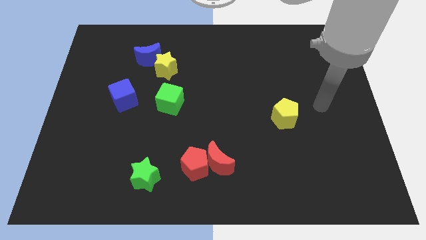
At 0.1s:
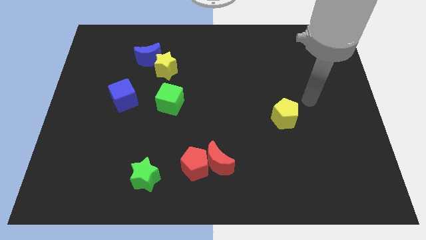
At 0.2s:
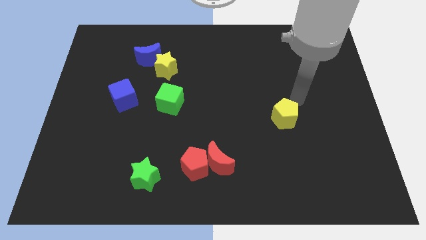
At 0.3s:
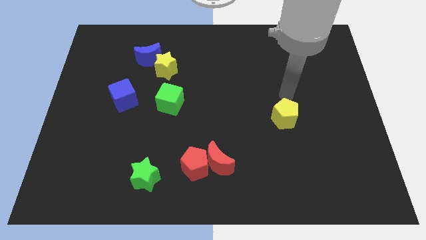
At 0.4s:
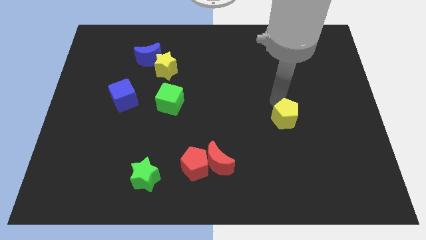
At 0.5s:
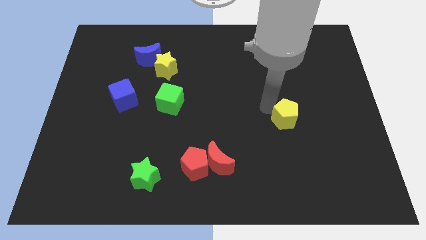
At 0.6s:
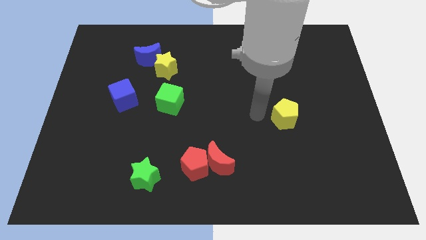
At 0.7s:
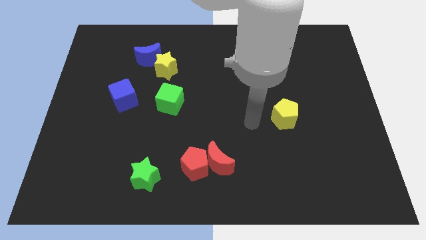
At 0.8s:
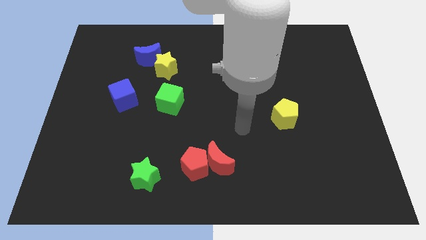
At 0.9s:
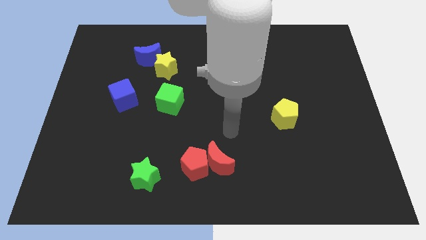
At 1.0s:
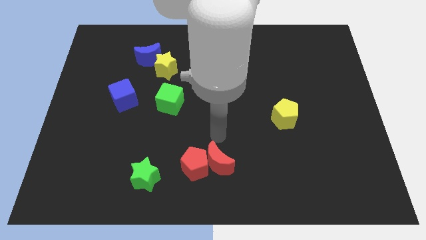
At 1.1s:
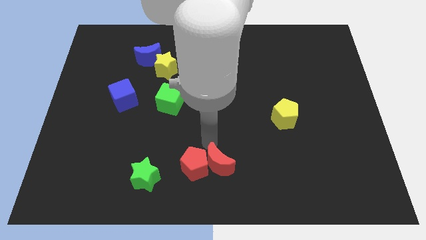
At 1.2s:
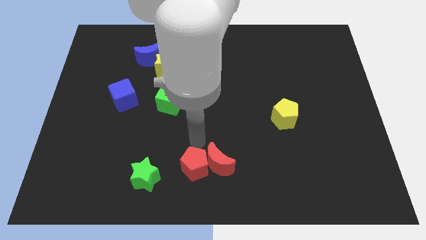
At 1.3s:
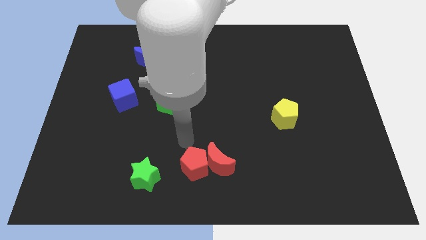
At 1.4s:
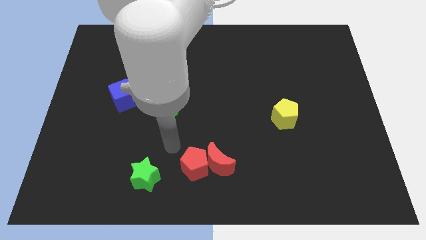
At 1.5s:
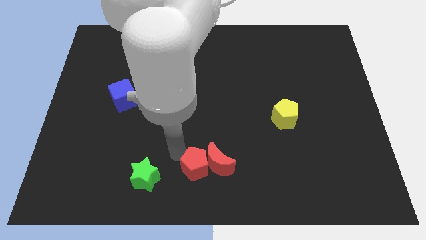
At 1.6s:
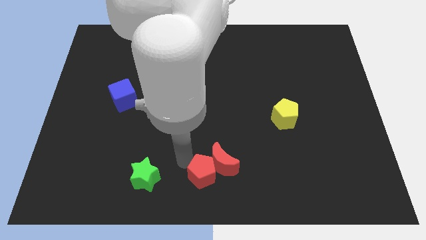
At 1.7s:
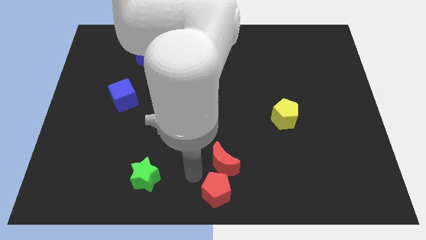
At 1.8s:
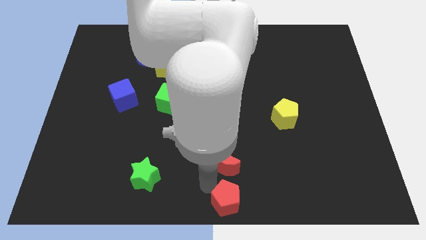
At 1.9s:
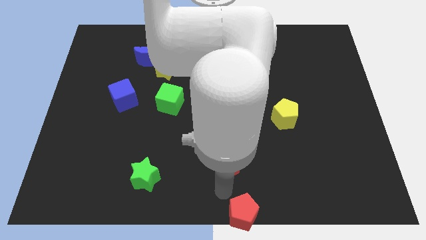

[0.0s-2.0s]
move the red moon away from the red pentagon

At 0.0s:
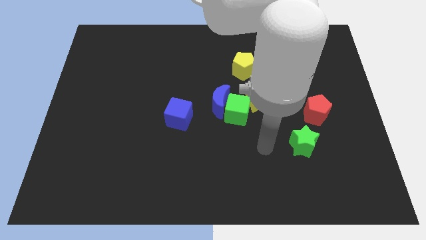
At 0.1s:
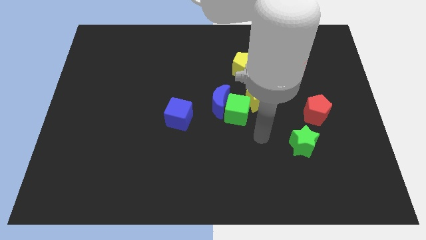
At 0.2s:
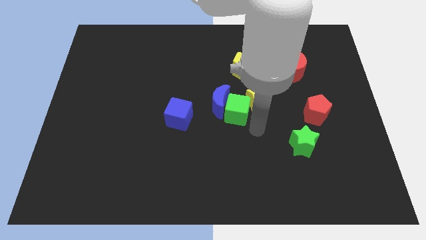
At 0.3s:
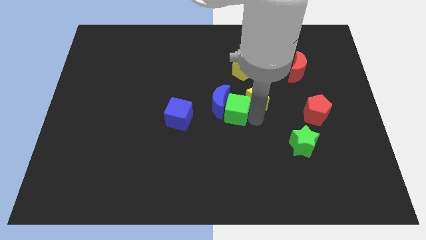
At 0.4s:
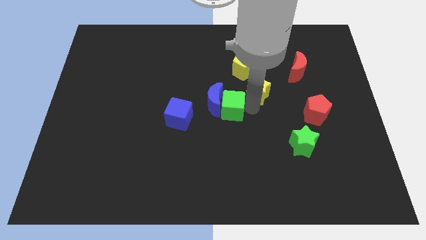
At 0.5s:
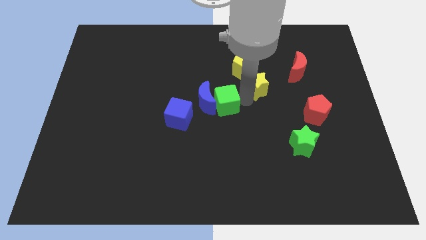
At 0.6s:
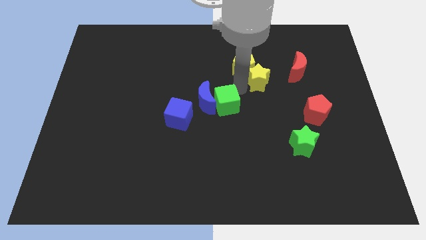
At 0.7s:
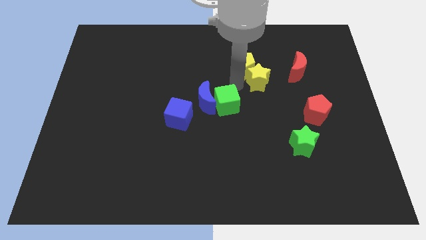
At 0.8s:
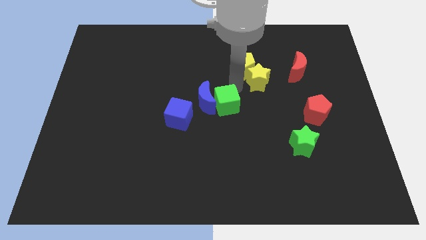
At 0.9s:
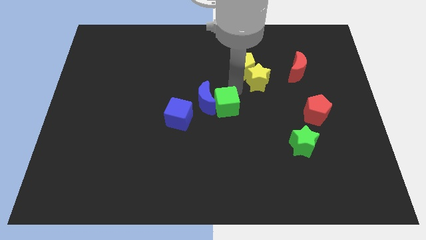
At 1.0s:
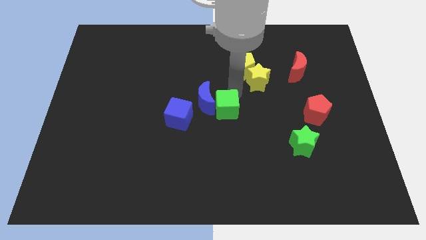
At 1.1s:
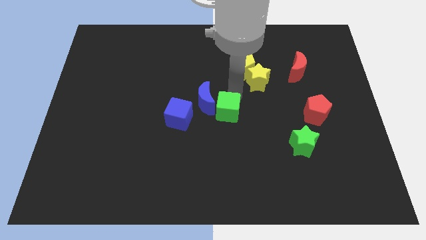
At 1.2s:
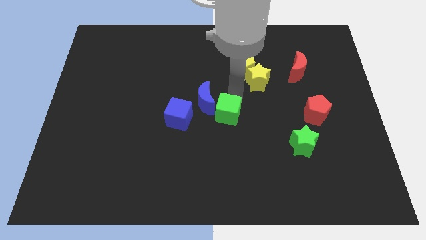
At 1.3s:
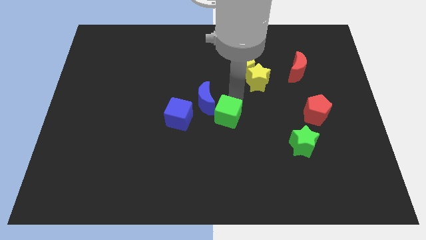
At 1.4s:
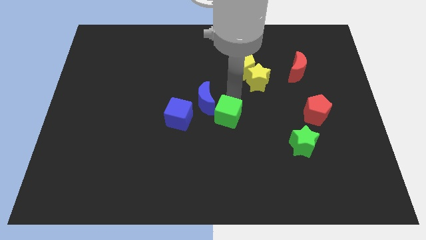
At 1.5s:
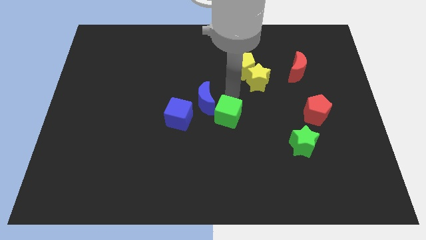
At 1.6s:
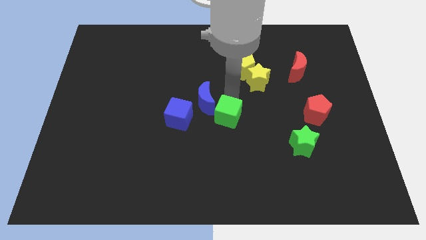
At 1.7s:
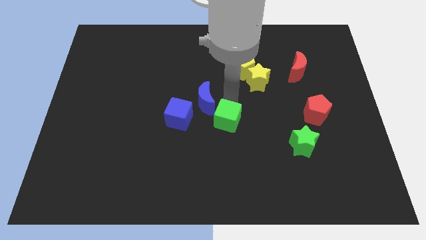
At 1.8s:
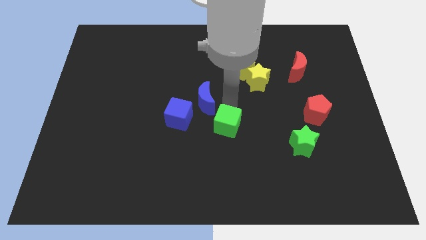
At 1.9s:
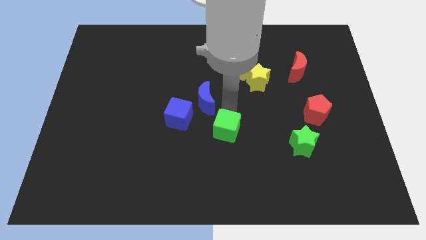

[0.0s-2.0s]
move the green cube away from the blue moon and yellow star

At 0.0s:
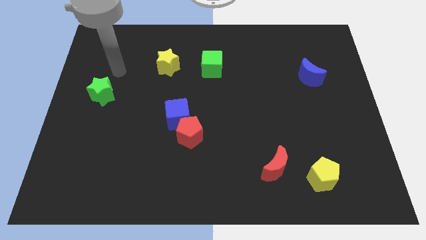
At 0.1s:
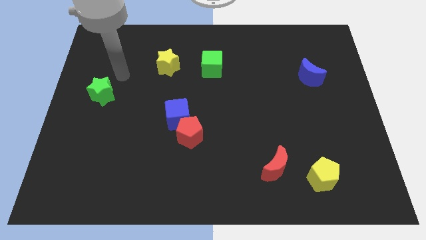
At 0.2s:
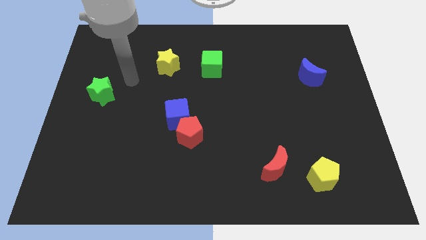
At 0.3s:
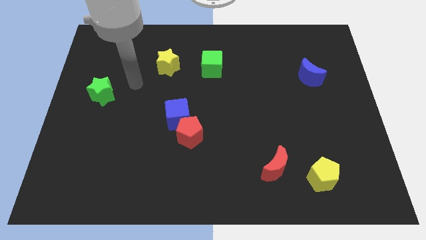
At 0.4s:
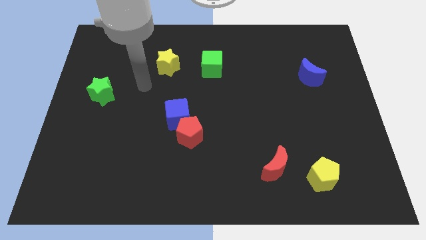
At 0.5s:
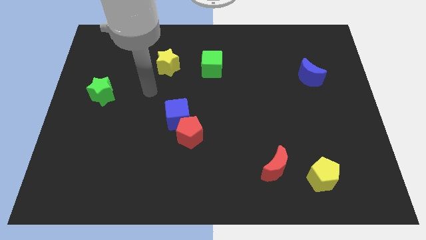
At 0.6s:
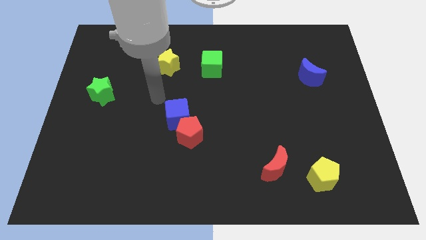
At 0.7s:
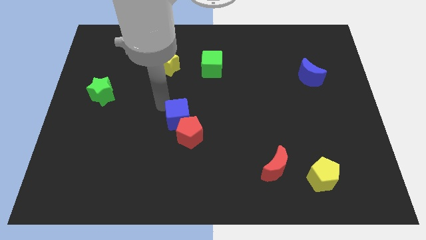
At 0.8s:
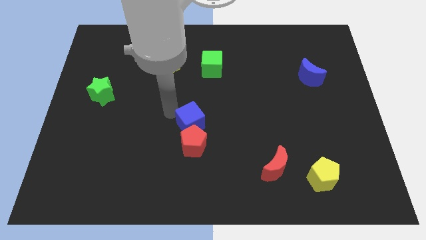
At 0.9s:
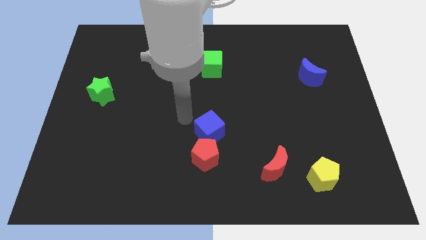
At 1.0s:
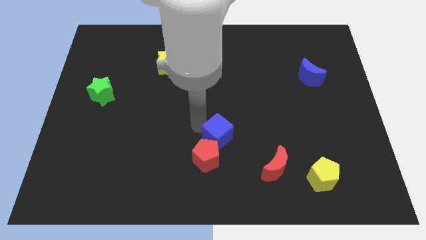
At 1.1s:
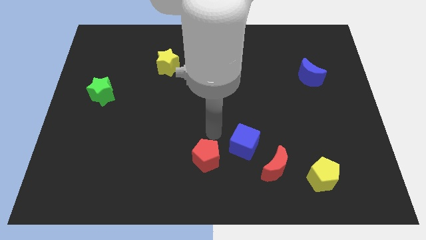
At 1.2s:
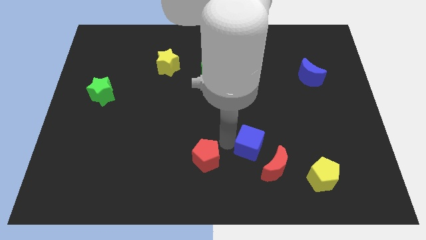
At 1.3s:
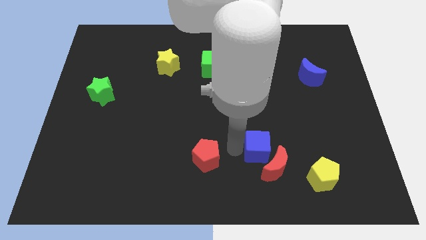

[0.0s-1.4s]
move the red pentagon away from the blue cube

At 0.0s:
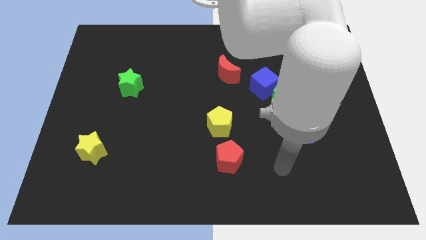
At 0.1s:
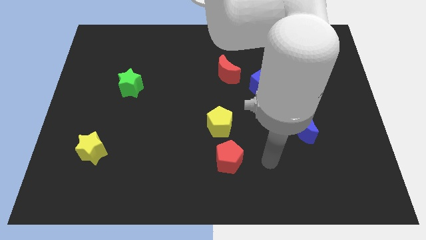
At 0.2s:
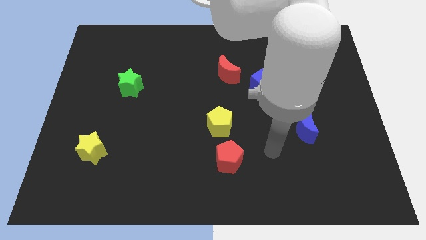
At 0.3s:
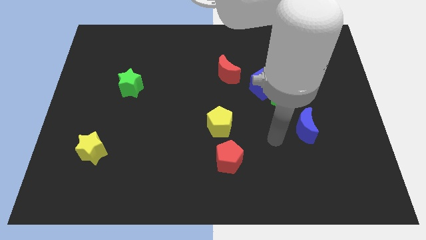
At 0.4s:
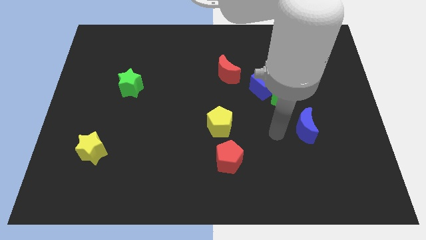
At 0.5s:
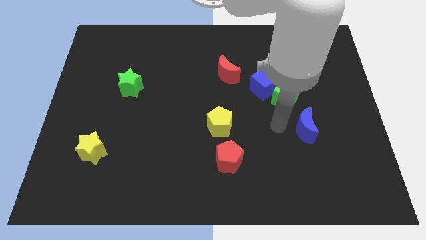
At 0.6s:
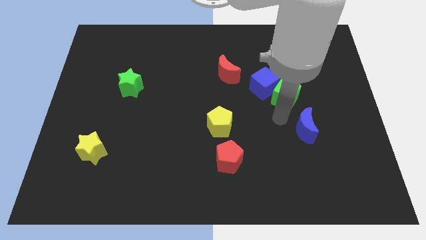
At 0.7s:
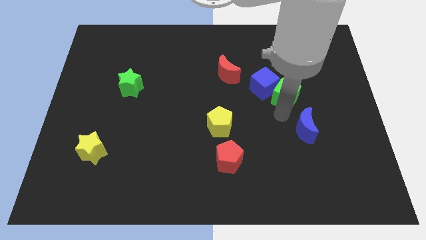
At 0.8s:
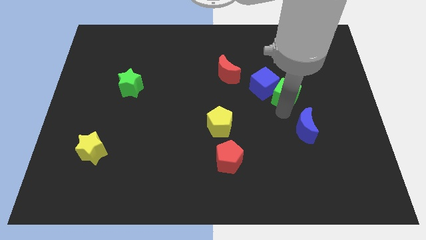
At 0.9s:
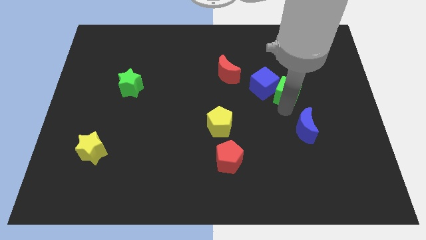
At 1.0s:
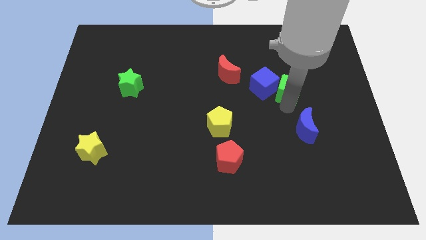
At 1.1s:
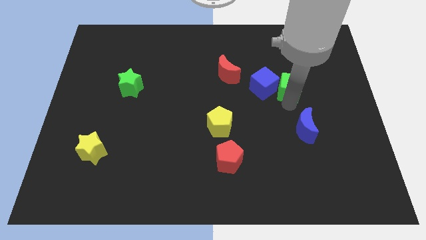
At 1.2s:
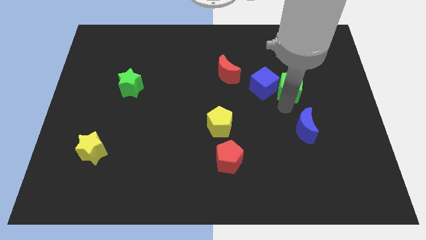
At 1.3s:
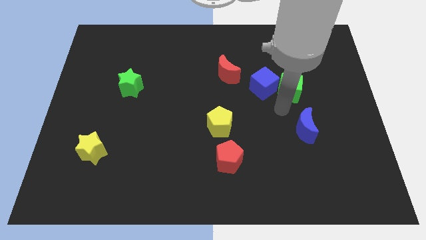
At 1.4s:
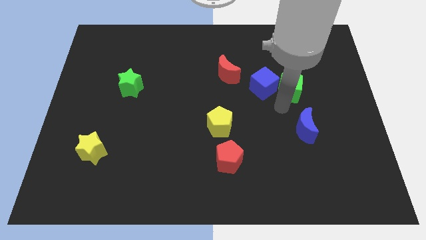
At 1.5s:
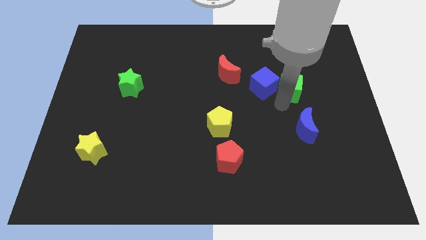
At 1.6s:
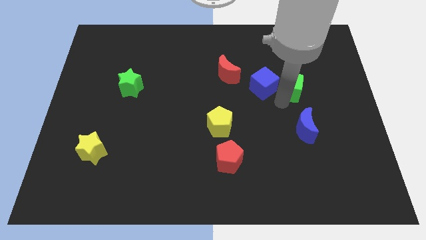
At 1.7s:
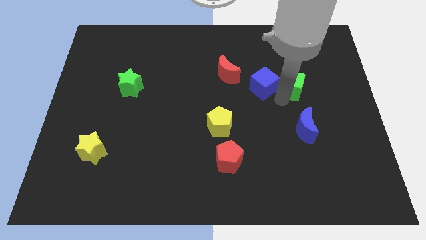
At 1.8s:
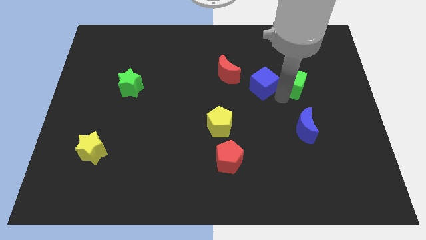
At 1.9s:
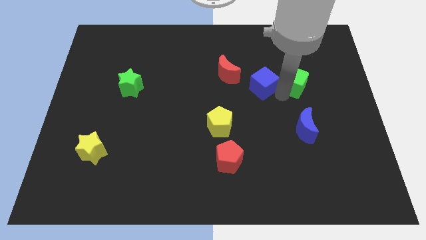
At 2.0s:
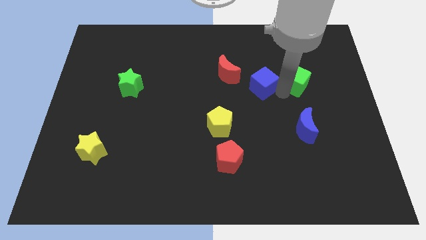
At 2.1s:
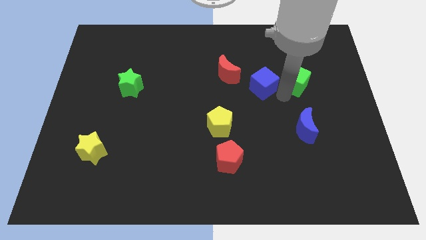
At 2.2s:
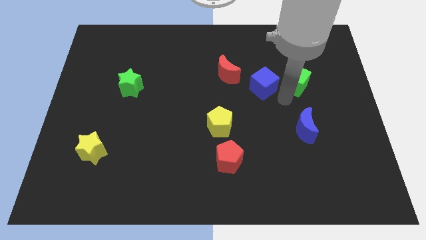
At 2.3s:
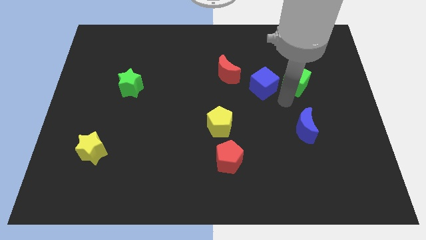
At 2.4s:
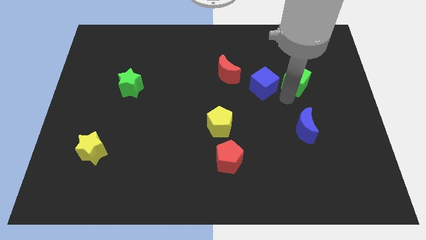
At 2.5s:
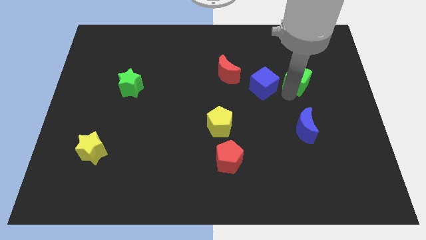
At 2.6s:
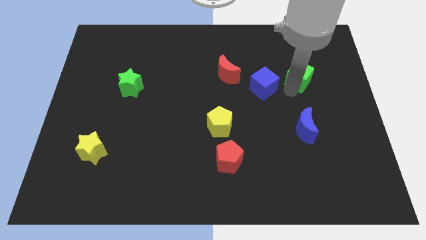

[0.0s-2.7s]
pull the green cube apart from the blue cube and blue moon

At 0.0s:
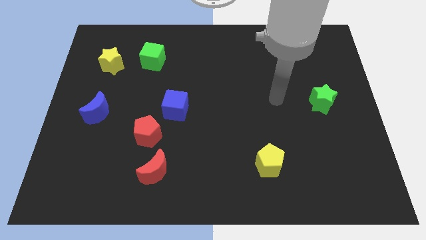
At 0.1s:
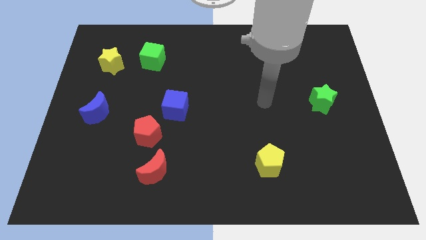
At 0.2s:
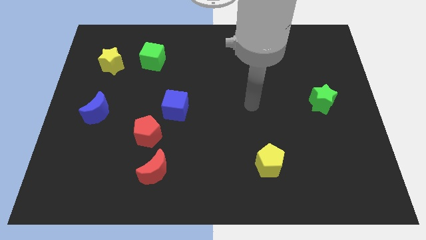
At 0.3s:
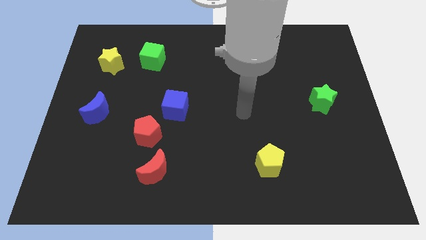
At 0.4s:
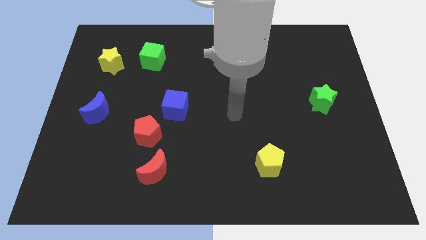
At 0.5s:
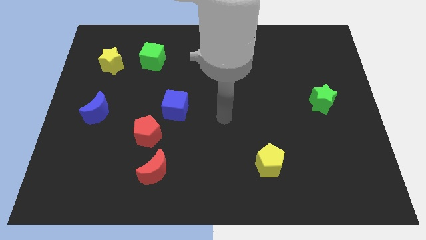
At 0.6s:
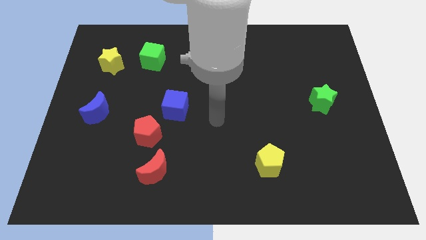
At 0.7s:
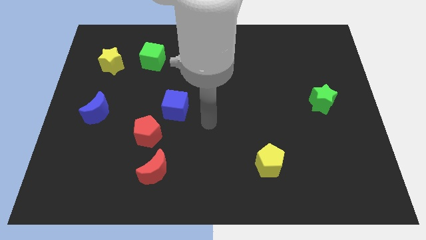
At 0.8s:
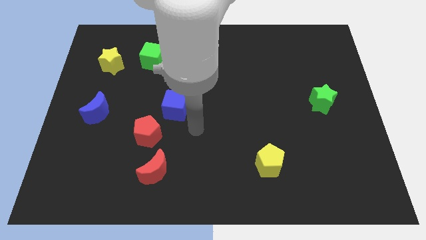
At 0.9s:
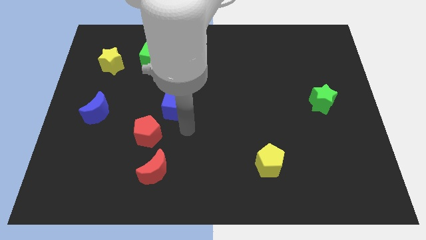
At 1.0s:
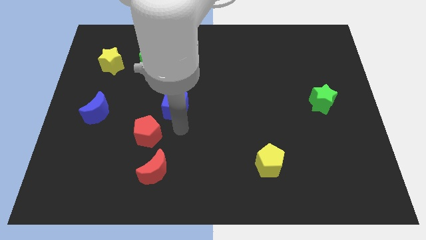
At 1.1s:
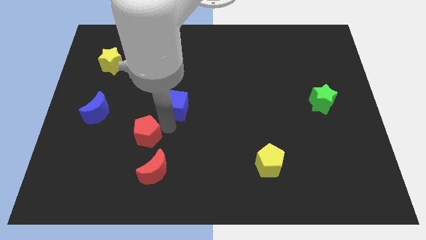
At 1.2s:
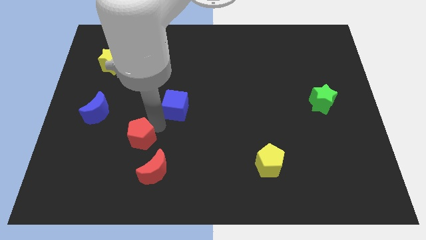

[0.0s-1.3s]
separate the blue cube from the red pentagon
